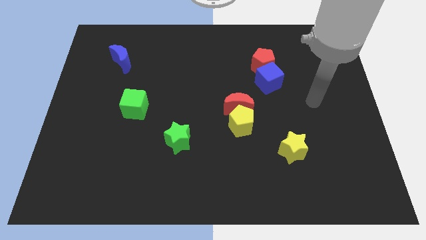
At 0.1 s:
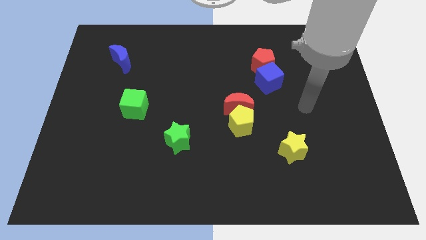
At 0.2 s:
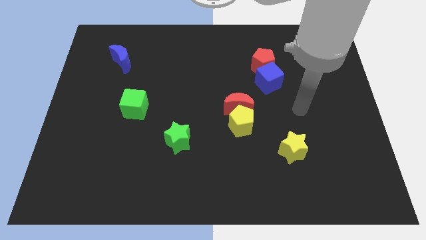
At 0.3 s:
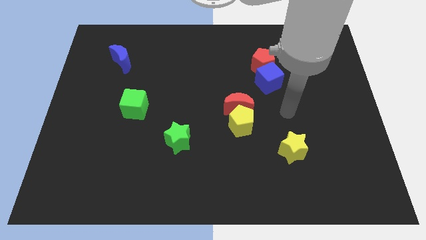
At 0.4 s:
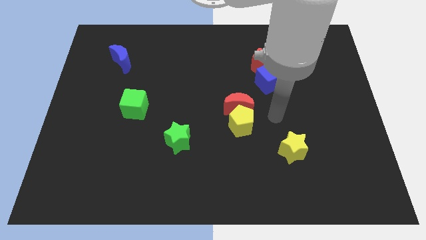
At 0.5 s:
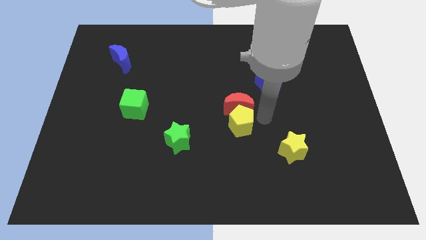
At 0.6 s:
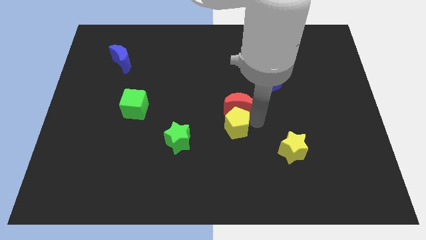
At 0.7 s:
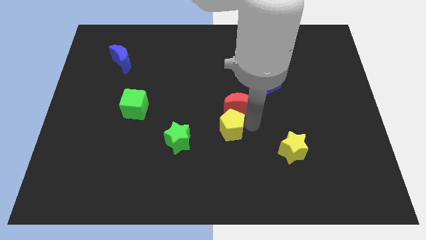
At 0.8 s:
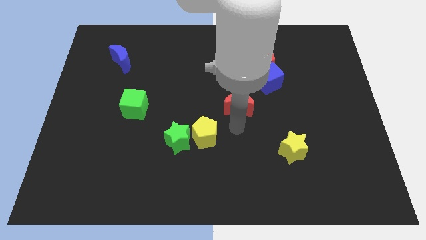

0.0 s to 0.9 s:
separate the red moon from the yellow pentagon

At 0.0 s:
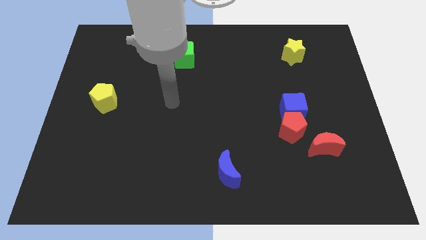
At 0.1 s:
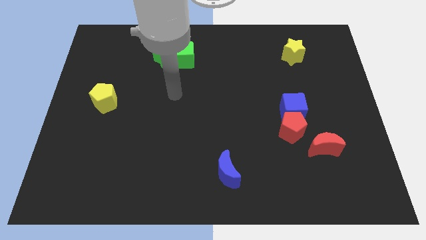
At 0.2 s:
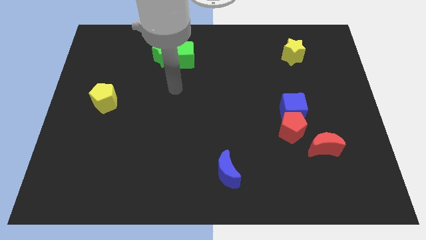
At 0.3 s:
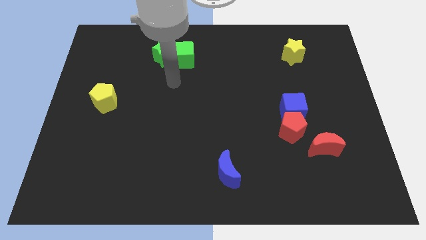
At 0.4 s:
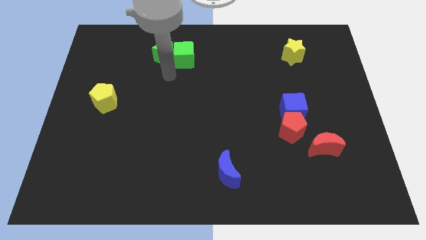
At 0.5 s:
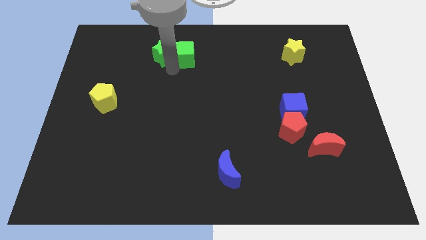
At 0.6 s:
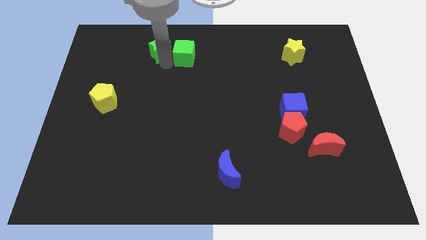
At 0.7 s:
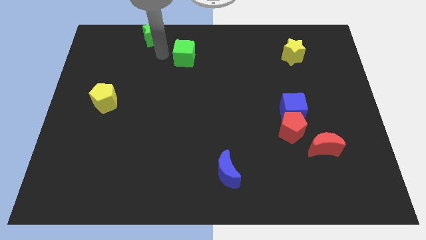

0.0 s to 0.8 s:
pull the green cube apart from the green star

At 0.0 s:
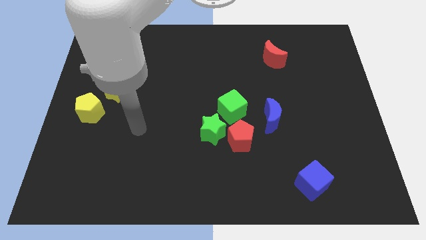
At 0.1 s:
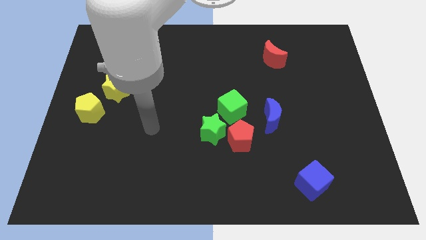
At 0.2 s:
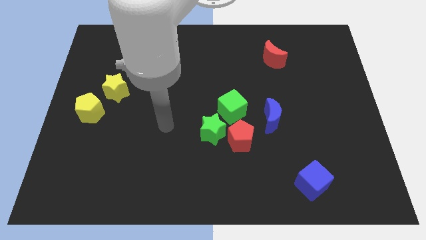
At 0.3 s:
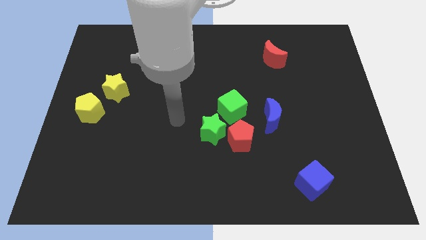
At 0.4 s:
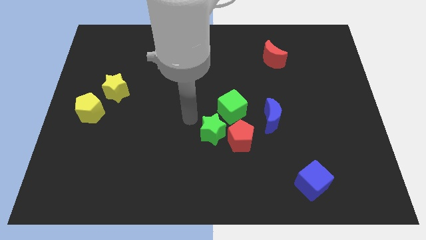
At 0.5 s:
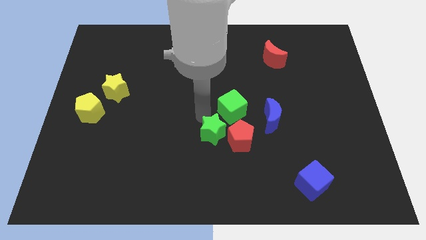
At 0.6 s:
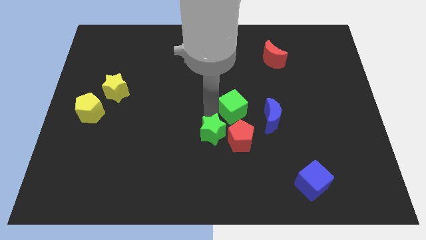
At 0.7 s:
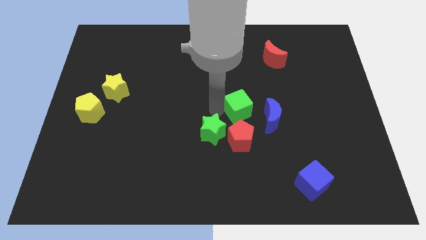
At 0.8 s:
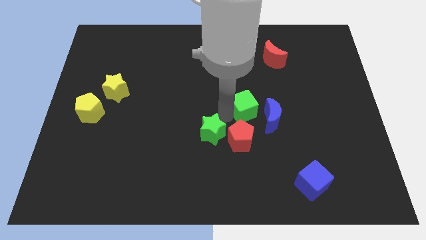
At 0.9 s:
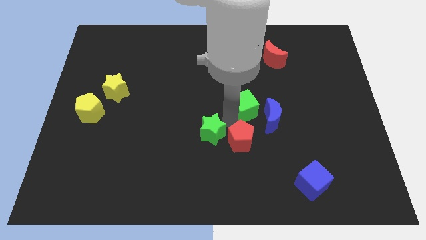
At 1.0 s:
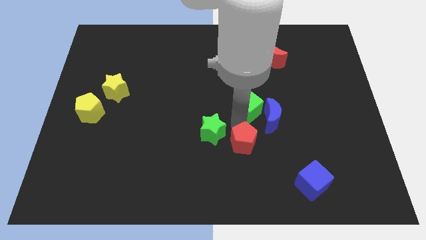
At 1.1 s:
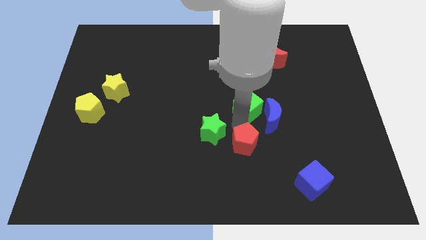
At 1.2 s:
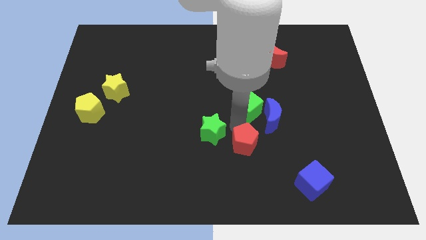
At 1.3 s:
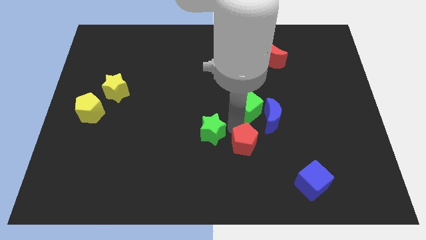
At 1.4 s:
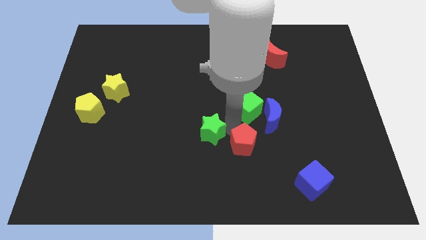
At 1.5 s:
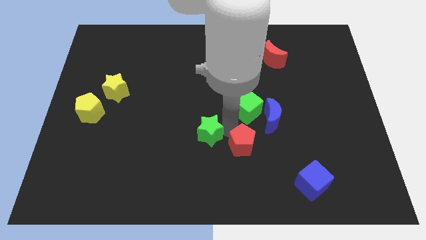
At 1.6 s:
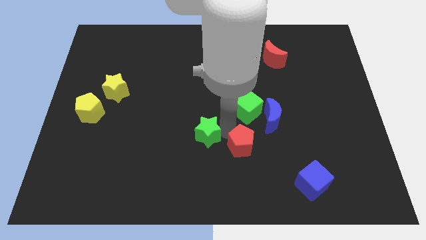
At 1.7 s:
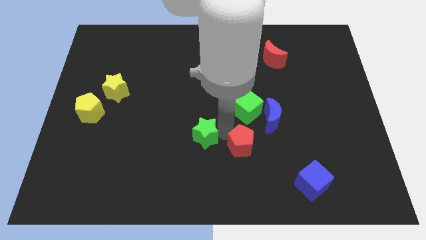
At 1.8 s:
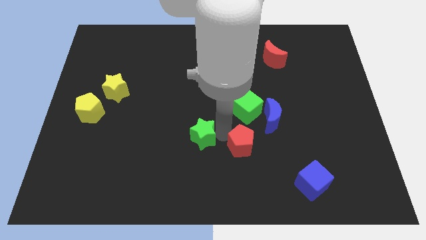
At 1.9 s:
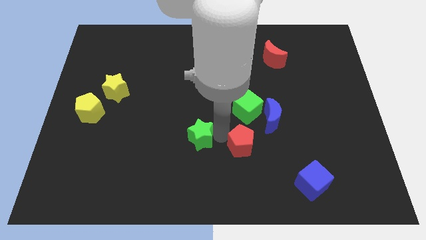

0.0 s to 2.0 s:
move the green star away from the red pentagon and green cube

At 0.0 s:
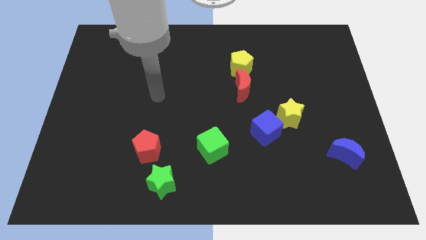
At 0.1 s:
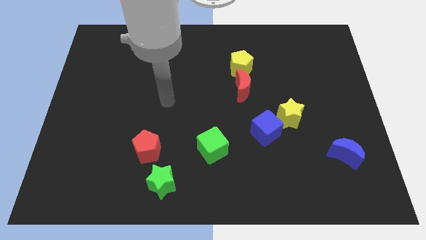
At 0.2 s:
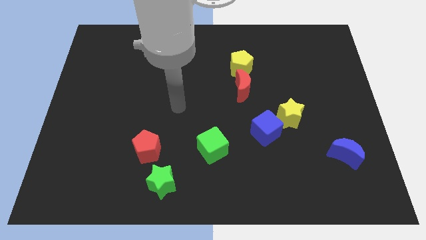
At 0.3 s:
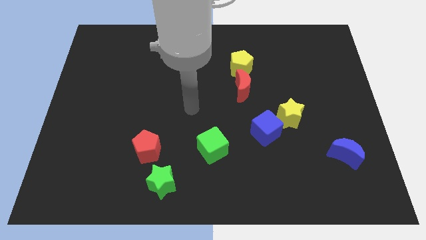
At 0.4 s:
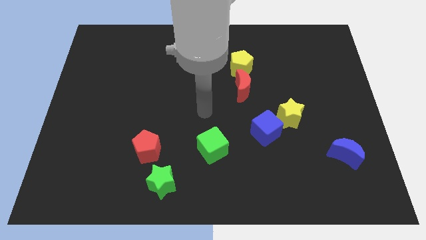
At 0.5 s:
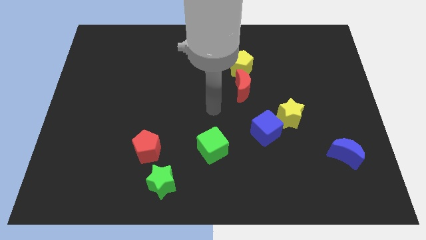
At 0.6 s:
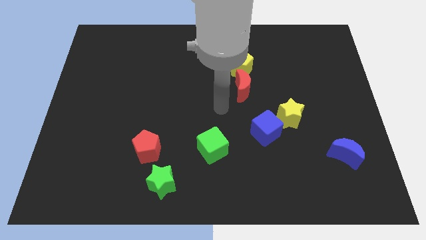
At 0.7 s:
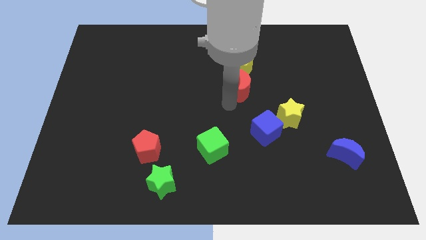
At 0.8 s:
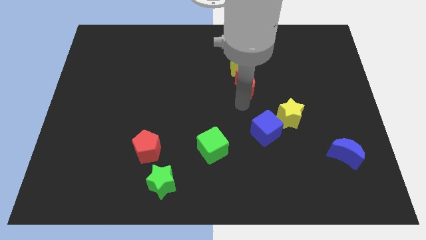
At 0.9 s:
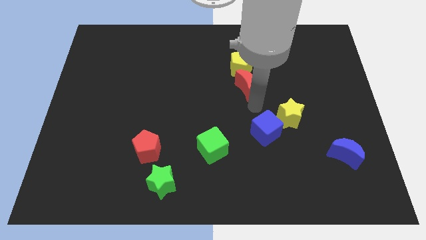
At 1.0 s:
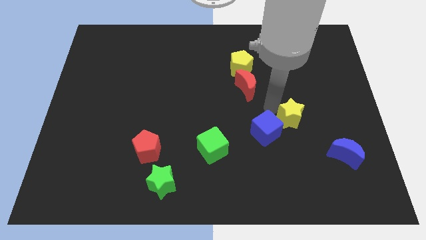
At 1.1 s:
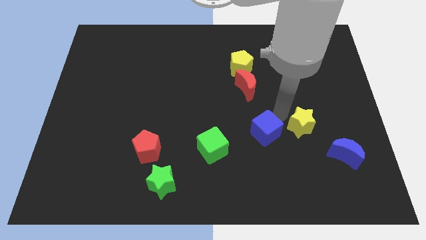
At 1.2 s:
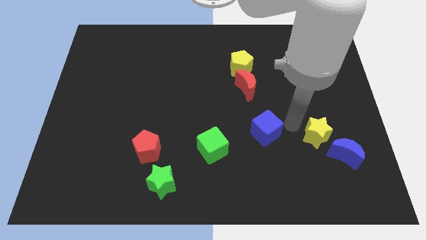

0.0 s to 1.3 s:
move the blue cube away from the yellow star

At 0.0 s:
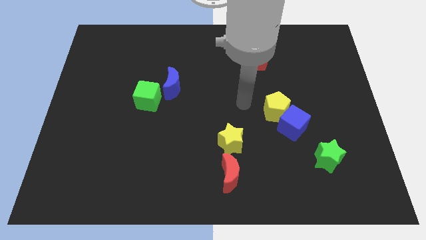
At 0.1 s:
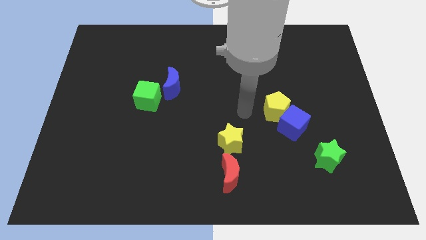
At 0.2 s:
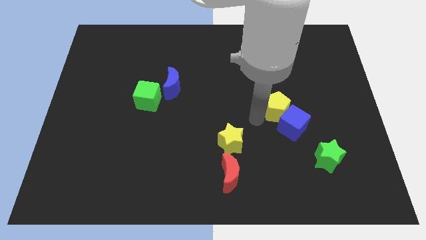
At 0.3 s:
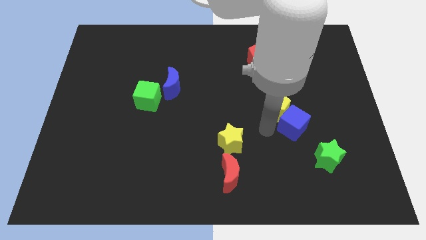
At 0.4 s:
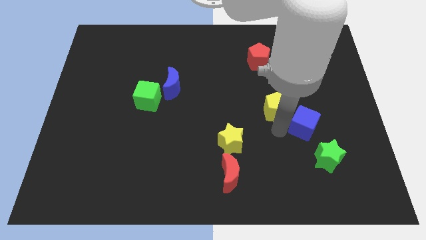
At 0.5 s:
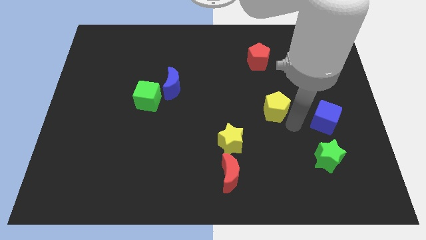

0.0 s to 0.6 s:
separate the yellow pentagon from the blue cube

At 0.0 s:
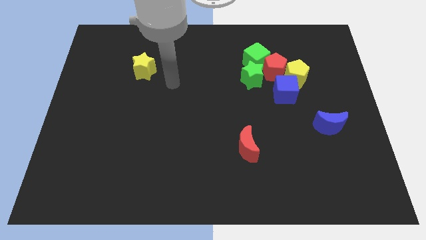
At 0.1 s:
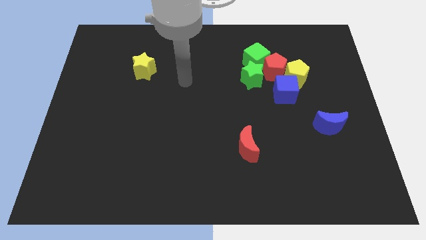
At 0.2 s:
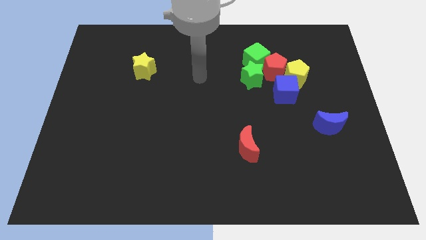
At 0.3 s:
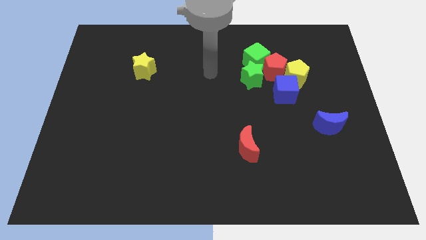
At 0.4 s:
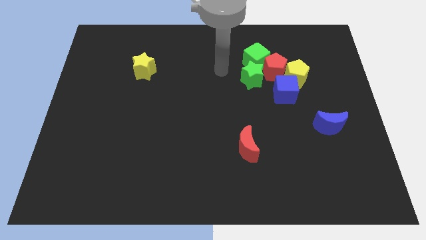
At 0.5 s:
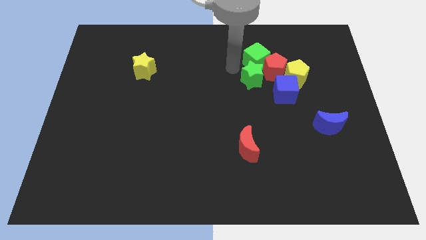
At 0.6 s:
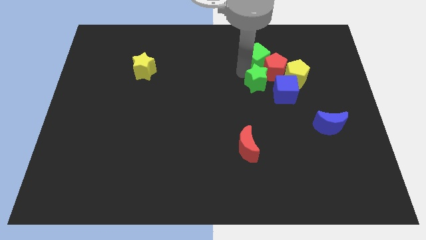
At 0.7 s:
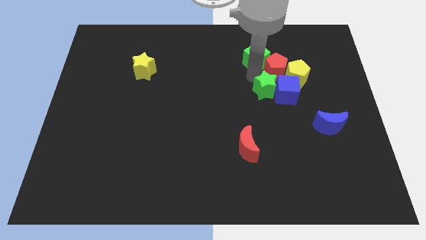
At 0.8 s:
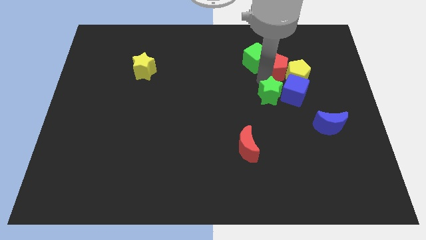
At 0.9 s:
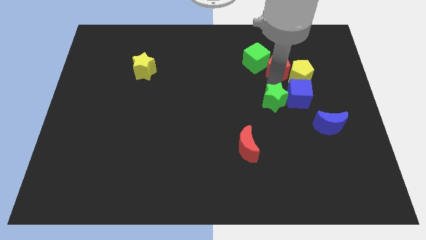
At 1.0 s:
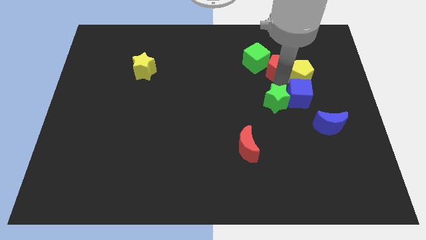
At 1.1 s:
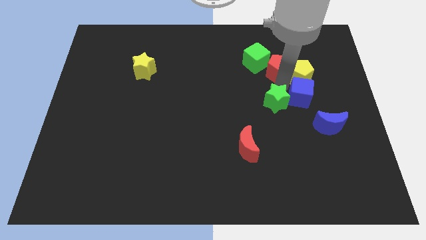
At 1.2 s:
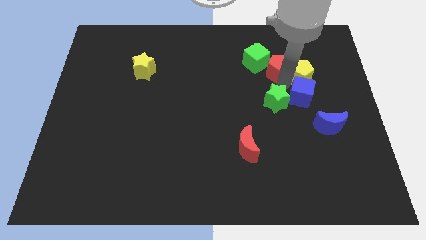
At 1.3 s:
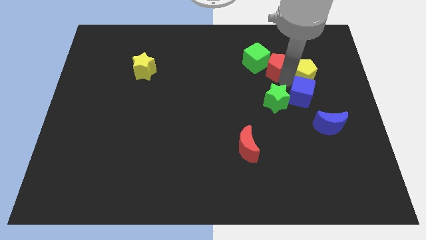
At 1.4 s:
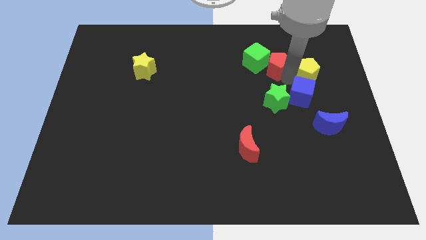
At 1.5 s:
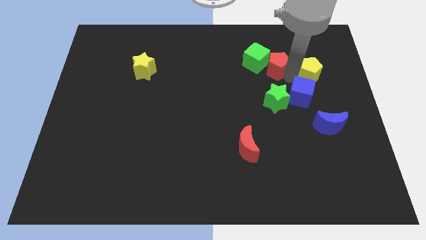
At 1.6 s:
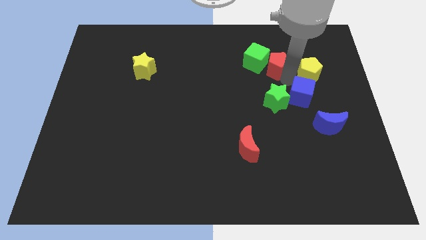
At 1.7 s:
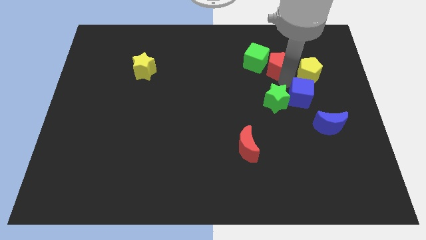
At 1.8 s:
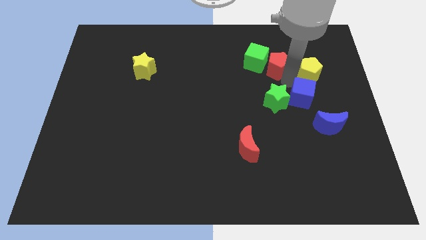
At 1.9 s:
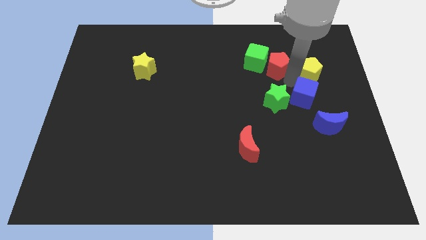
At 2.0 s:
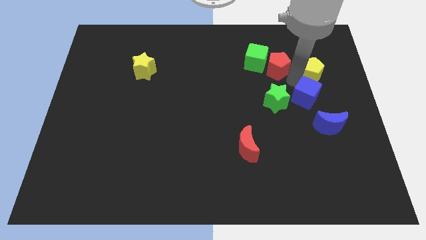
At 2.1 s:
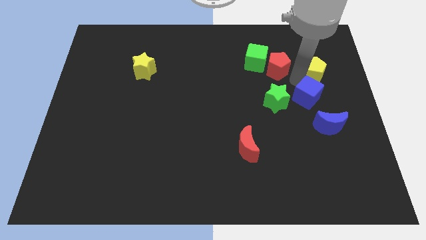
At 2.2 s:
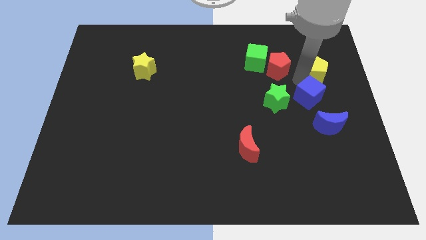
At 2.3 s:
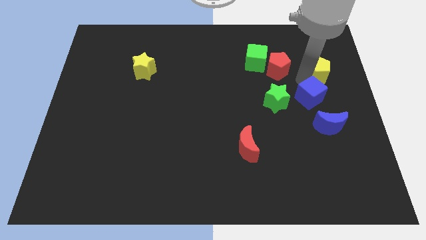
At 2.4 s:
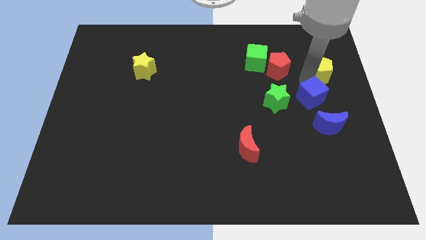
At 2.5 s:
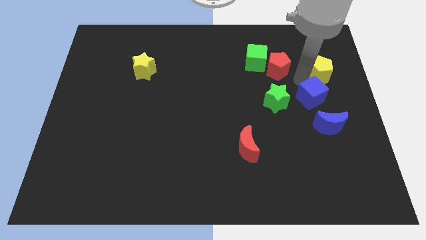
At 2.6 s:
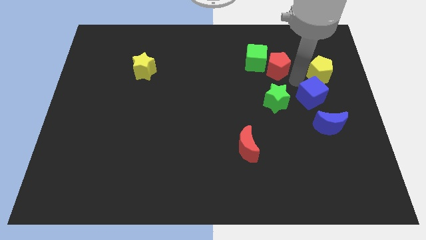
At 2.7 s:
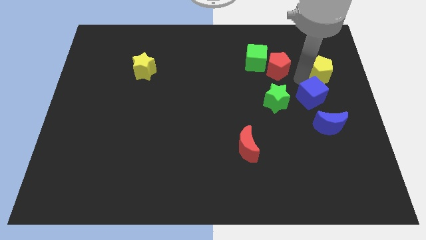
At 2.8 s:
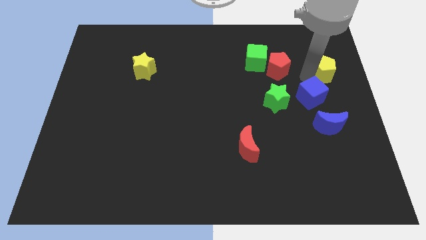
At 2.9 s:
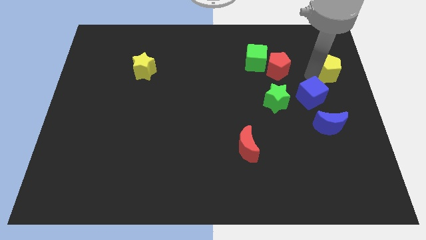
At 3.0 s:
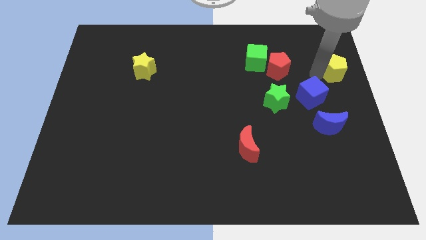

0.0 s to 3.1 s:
pull the yellow pentagon apart from the red pentagon and blue cube

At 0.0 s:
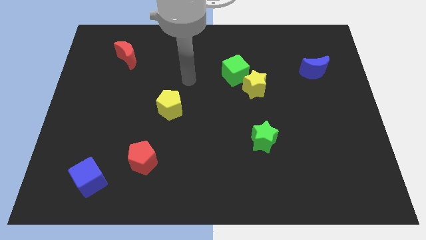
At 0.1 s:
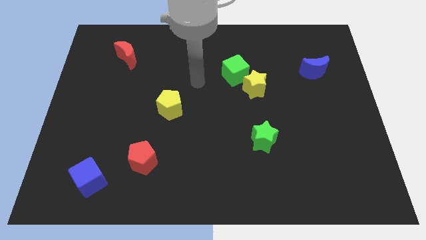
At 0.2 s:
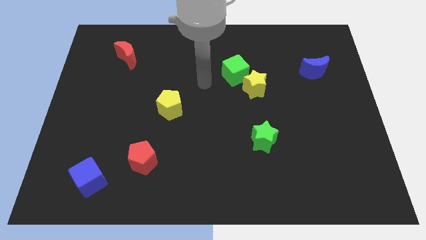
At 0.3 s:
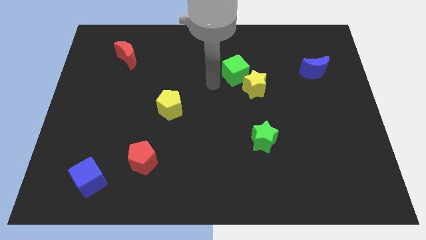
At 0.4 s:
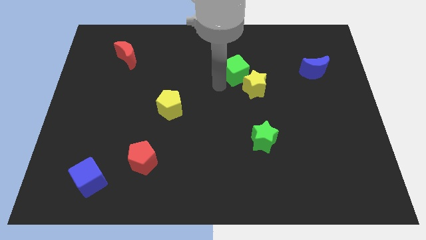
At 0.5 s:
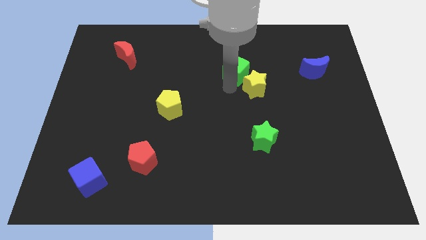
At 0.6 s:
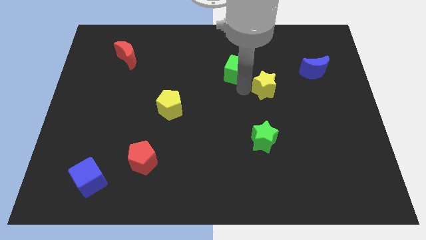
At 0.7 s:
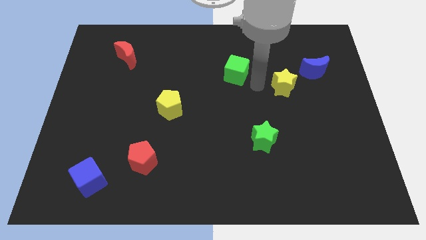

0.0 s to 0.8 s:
move the green cube away from the yellow star
